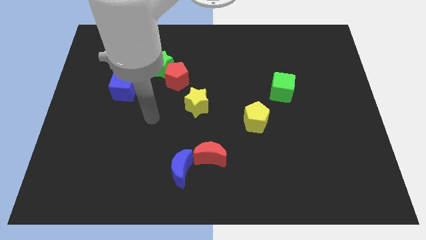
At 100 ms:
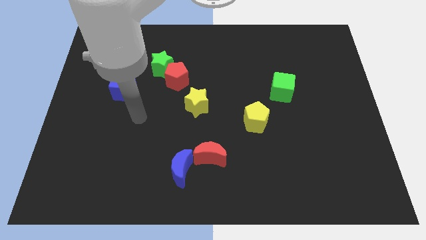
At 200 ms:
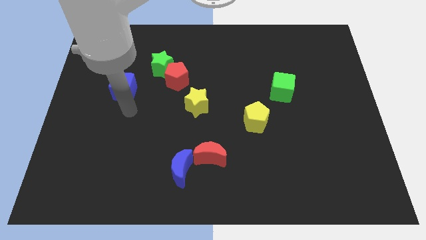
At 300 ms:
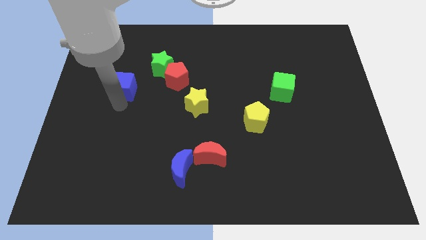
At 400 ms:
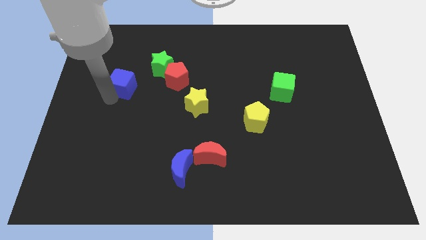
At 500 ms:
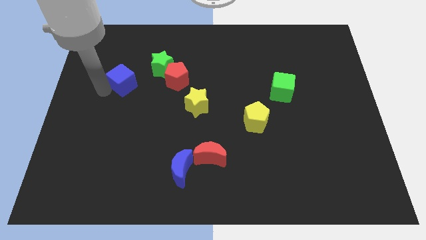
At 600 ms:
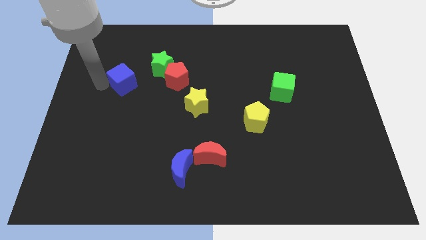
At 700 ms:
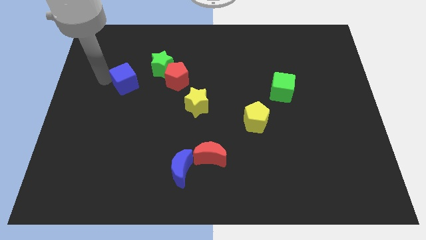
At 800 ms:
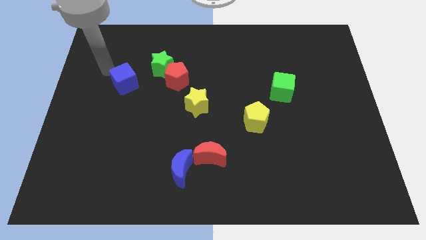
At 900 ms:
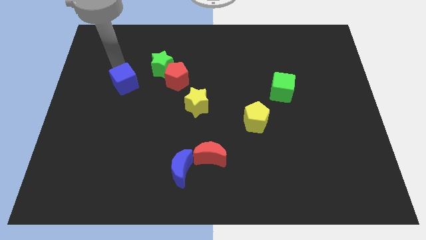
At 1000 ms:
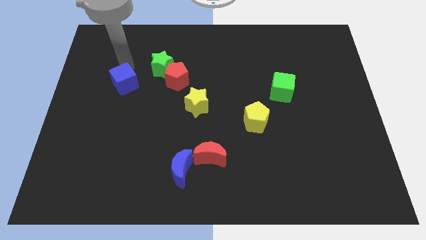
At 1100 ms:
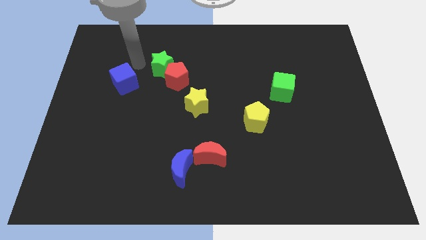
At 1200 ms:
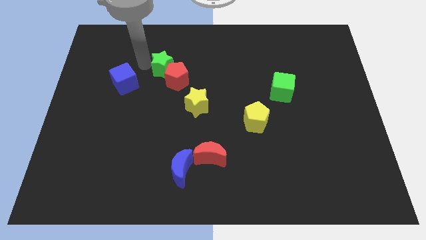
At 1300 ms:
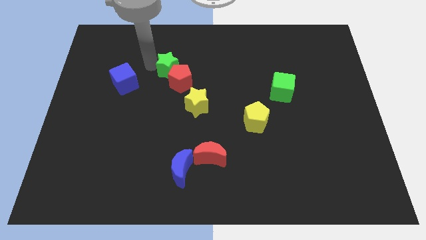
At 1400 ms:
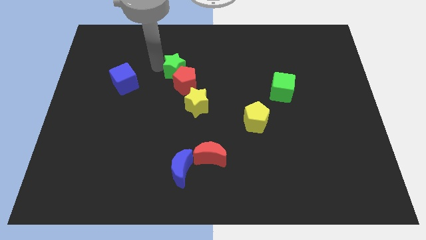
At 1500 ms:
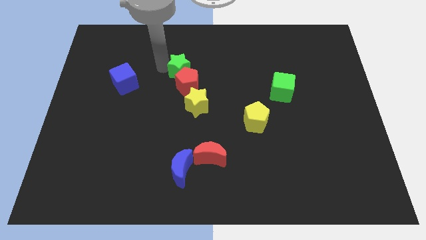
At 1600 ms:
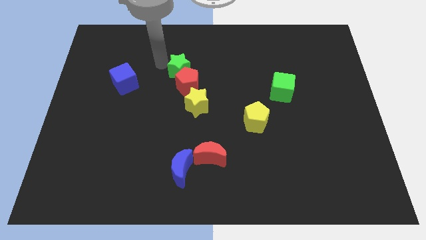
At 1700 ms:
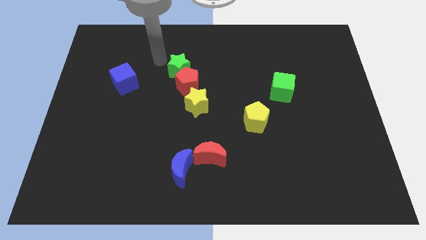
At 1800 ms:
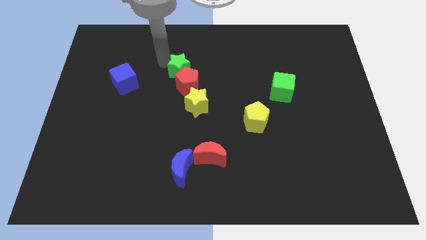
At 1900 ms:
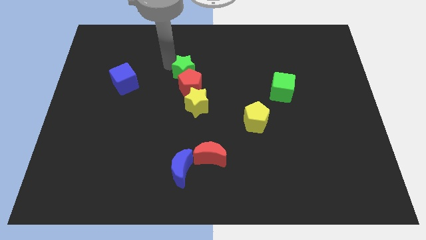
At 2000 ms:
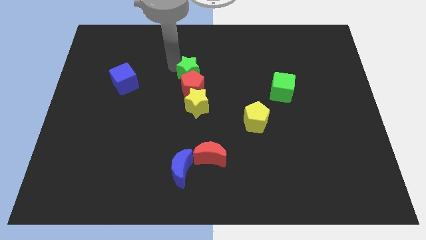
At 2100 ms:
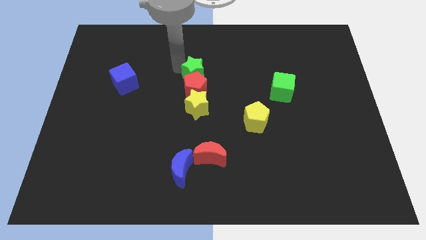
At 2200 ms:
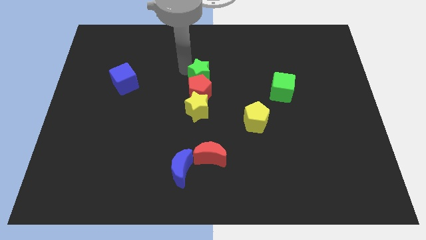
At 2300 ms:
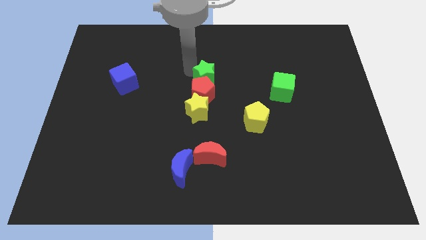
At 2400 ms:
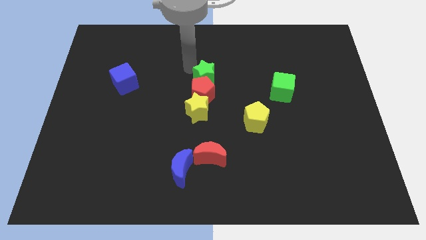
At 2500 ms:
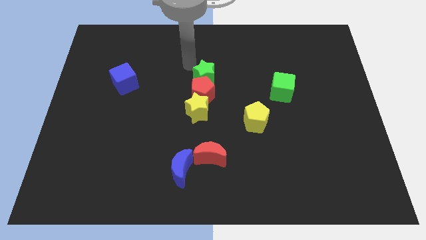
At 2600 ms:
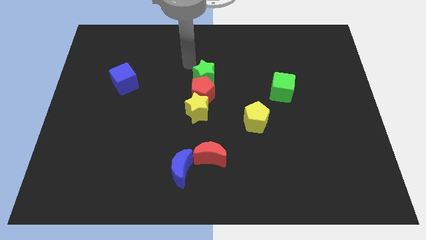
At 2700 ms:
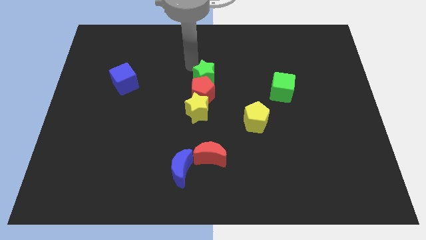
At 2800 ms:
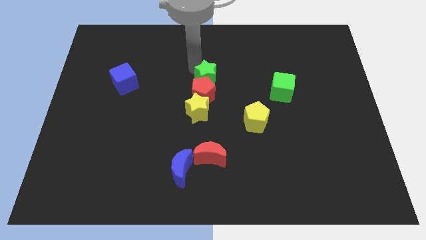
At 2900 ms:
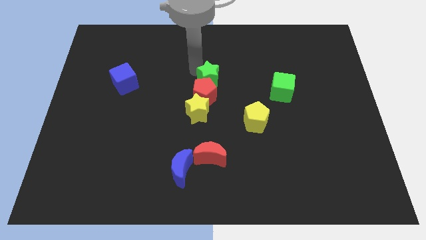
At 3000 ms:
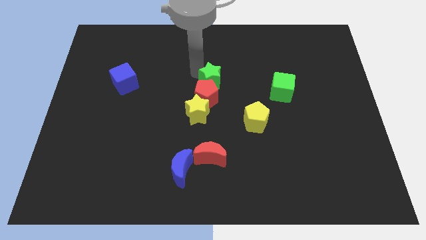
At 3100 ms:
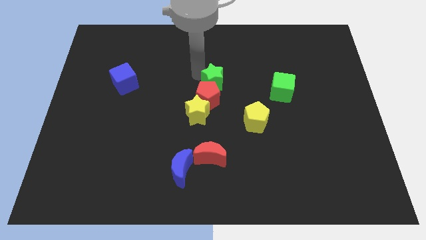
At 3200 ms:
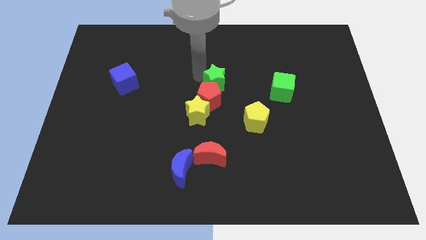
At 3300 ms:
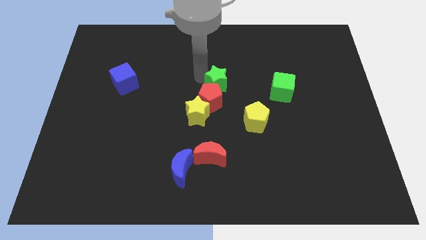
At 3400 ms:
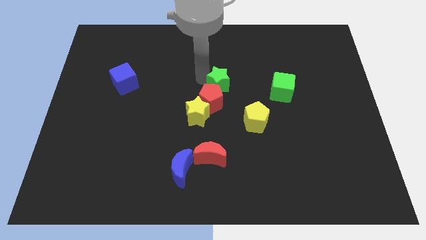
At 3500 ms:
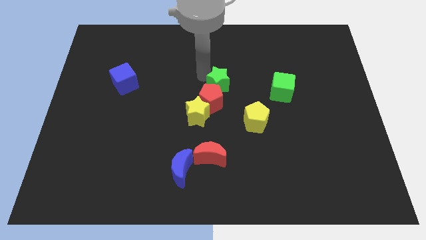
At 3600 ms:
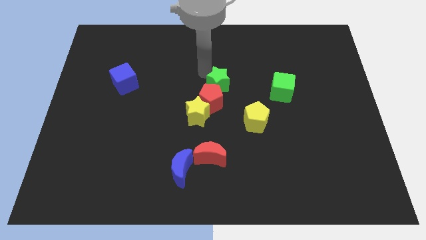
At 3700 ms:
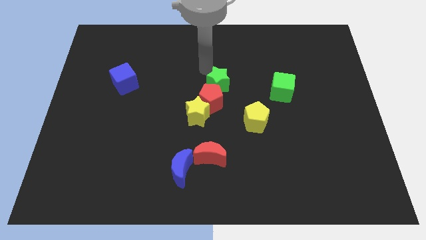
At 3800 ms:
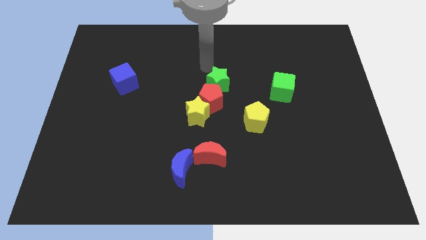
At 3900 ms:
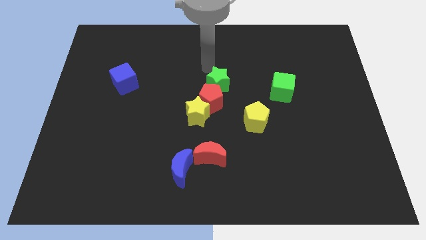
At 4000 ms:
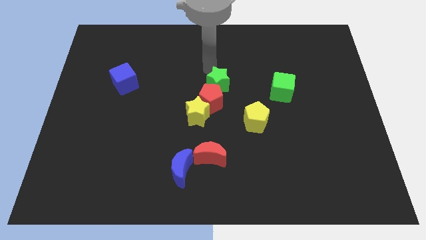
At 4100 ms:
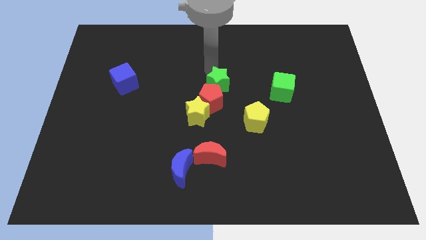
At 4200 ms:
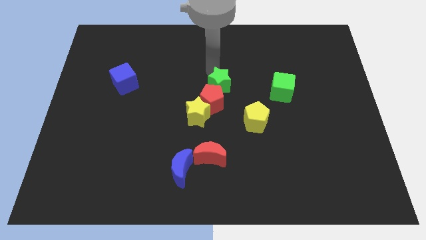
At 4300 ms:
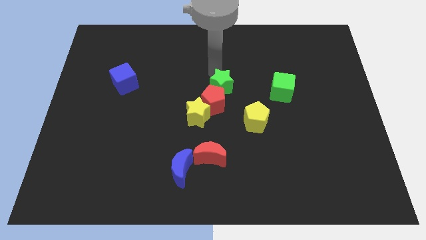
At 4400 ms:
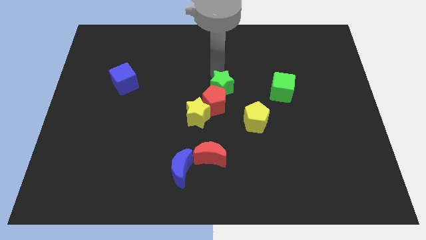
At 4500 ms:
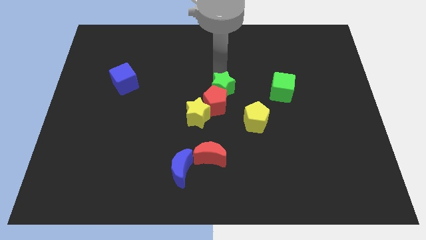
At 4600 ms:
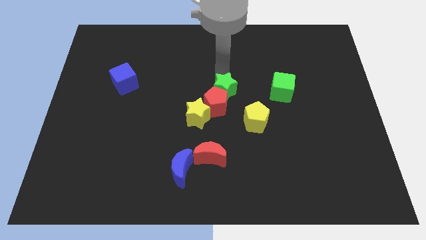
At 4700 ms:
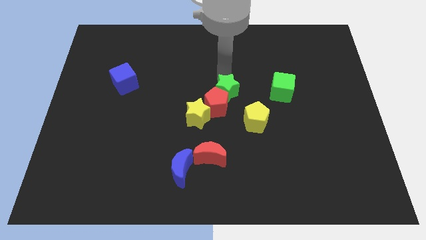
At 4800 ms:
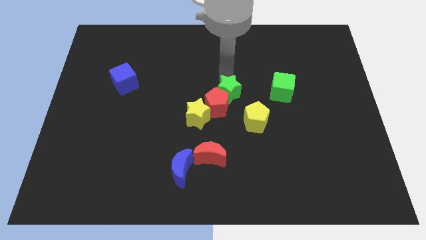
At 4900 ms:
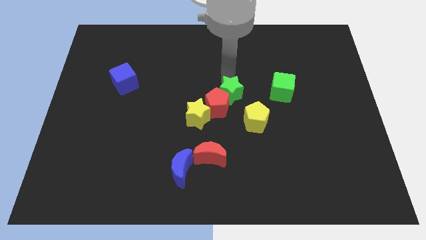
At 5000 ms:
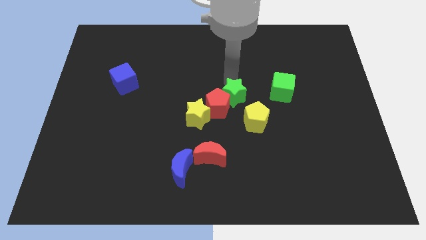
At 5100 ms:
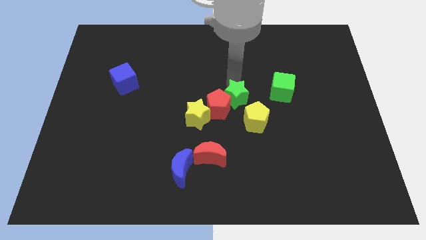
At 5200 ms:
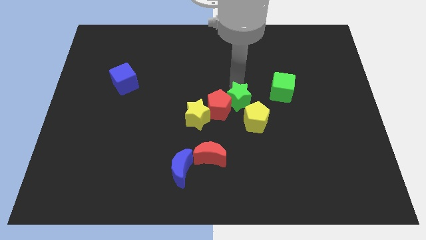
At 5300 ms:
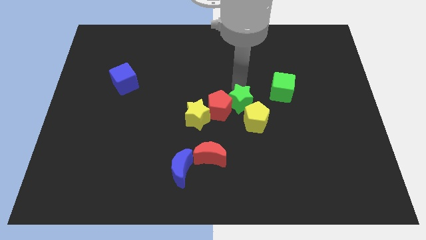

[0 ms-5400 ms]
put the green star close to the yellow pentagon

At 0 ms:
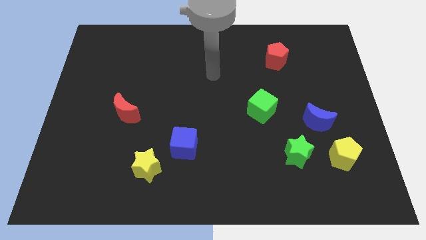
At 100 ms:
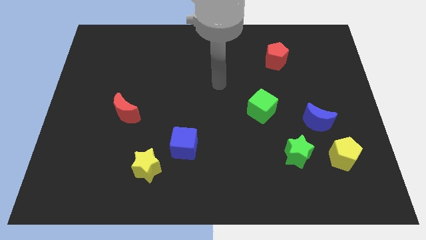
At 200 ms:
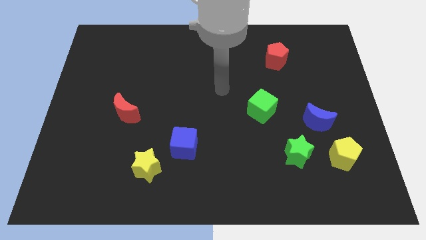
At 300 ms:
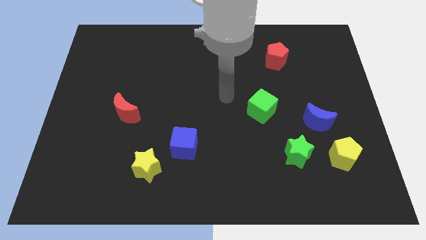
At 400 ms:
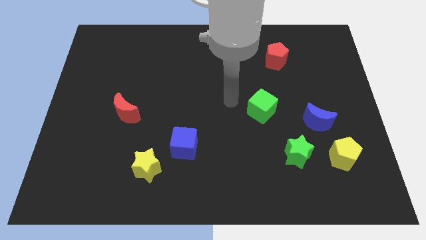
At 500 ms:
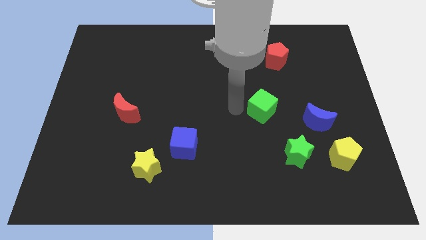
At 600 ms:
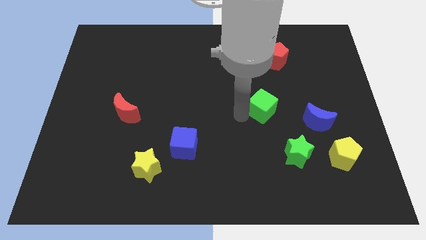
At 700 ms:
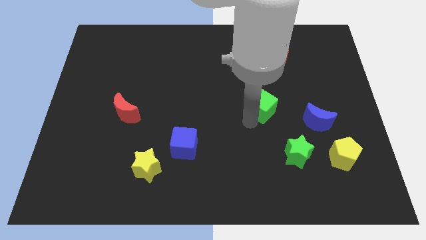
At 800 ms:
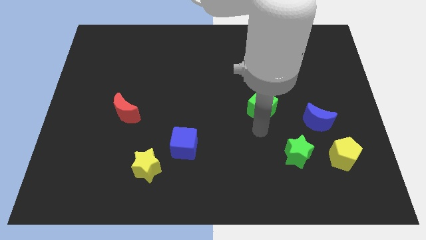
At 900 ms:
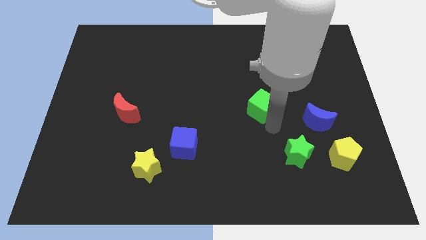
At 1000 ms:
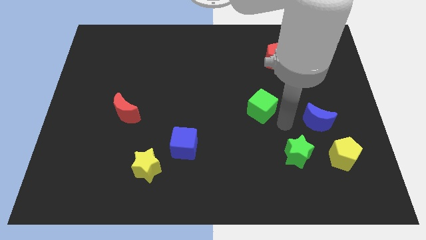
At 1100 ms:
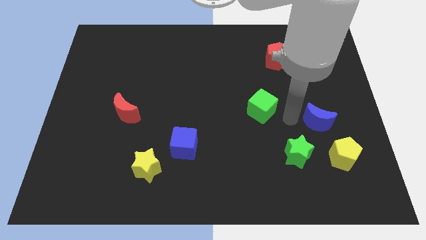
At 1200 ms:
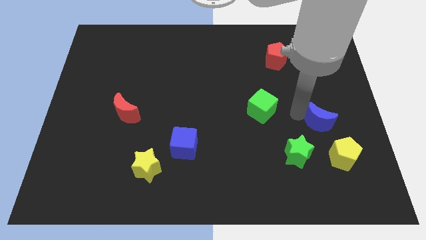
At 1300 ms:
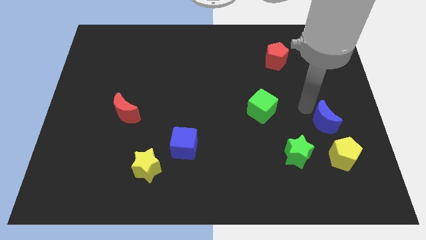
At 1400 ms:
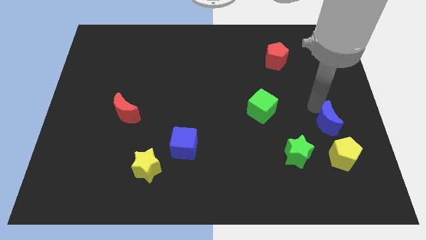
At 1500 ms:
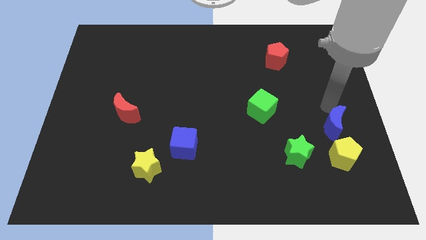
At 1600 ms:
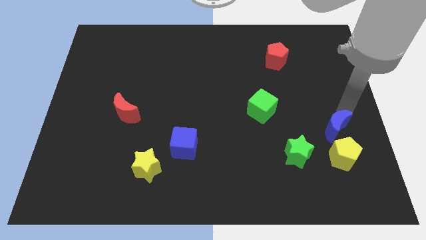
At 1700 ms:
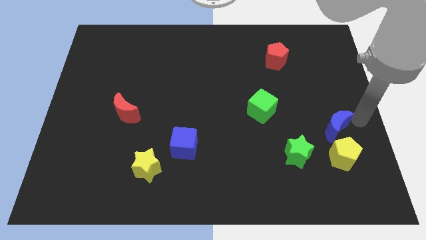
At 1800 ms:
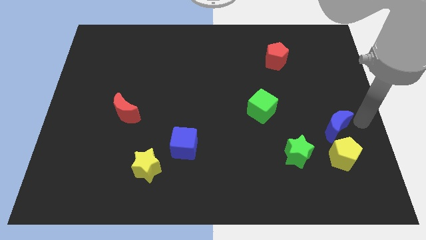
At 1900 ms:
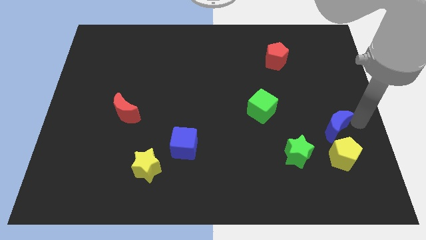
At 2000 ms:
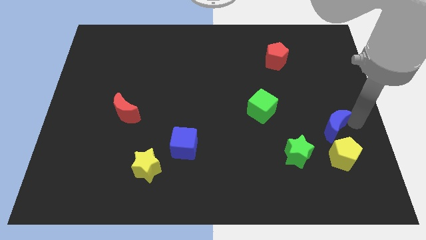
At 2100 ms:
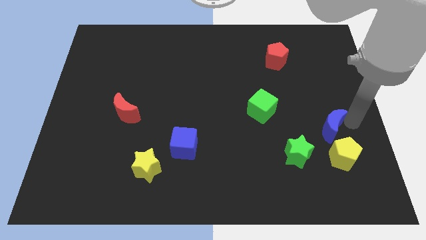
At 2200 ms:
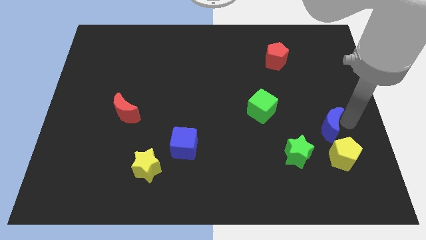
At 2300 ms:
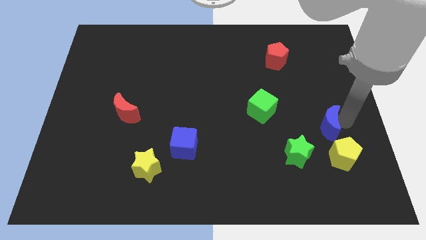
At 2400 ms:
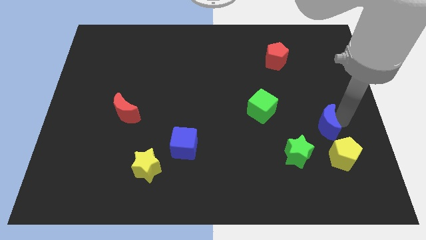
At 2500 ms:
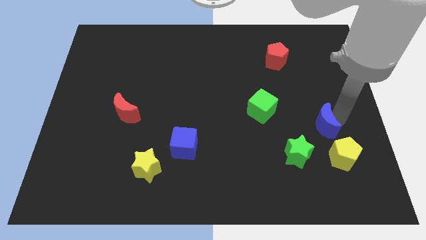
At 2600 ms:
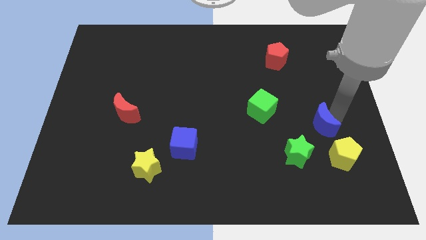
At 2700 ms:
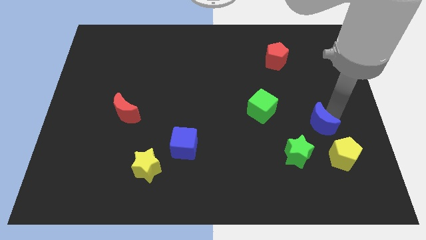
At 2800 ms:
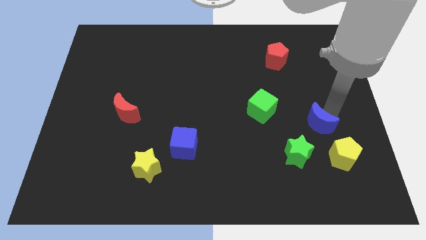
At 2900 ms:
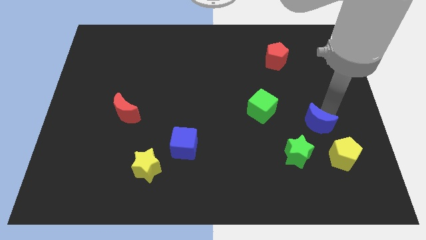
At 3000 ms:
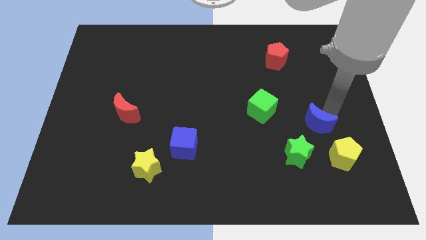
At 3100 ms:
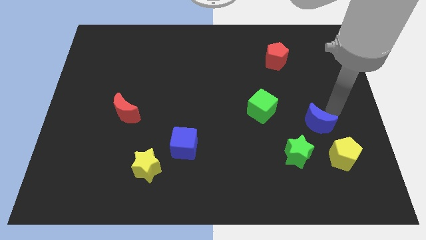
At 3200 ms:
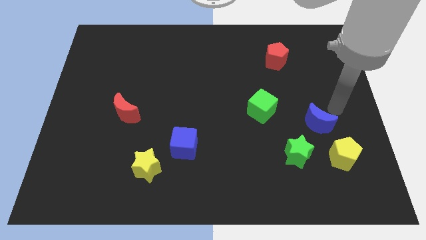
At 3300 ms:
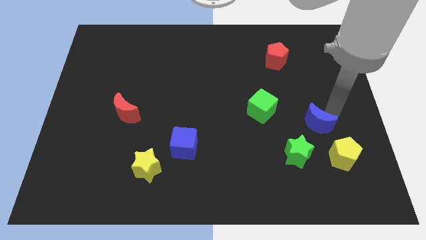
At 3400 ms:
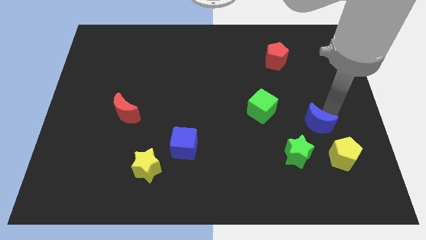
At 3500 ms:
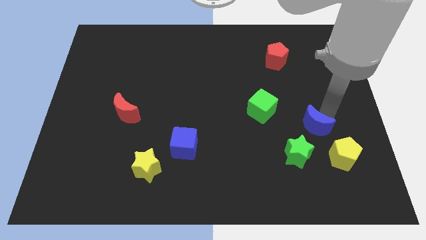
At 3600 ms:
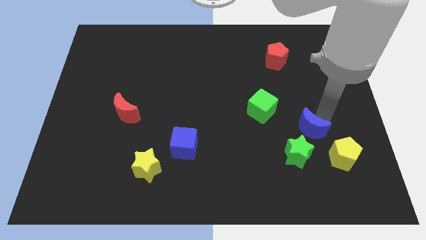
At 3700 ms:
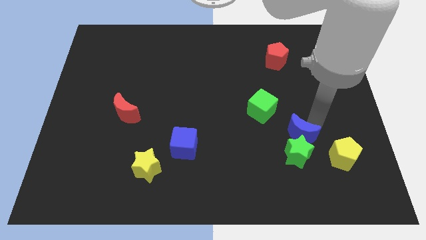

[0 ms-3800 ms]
put the blue moon to the green star
